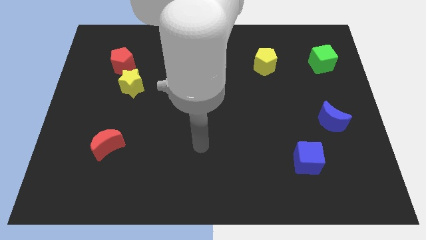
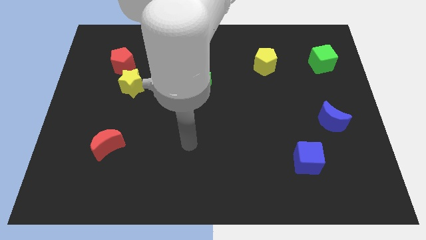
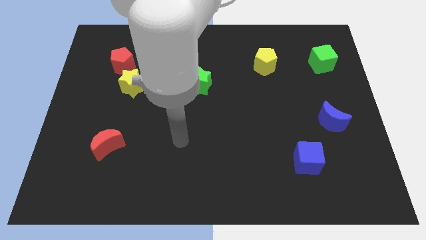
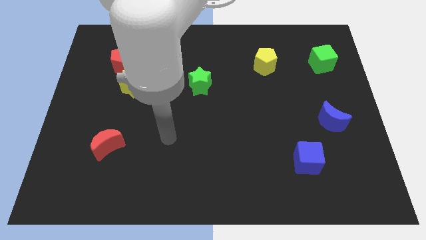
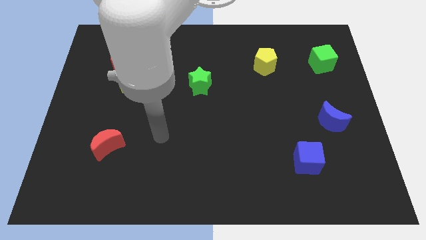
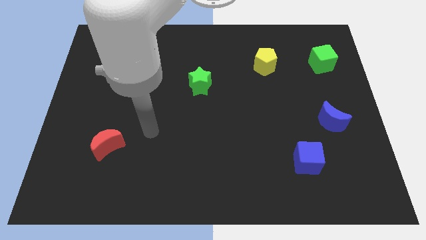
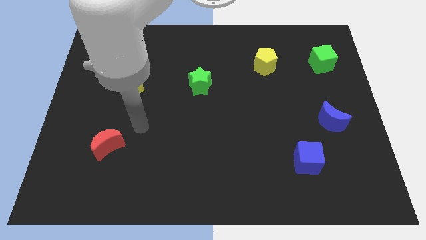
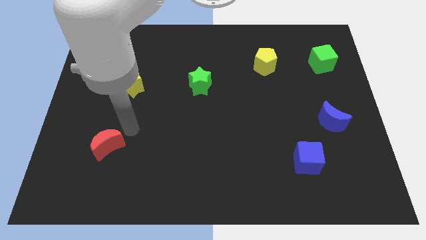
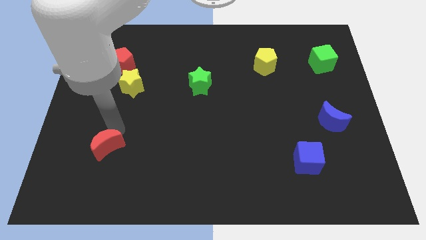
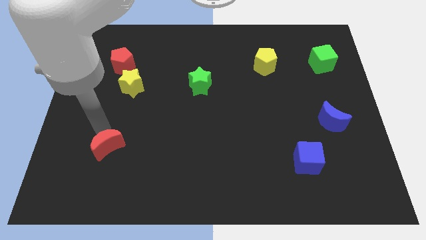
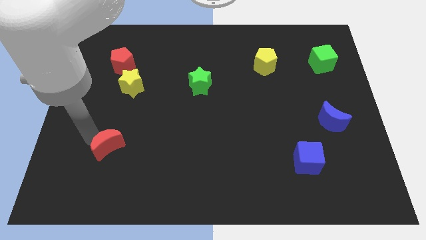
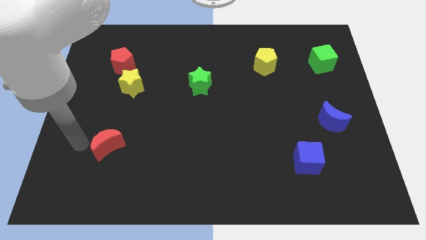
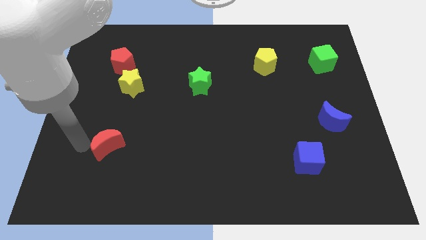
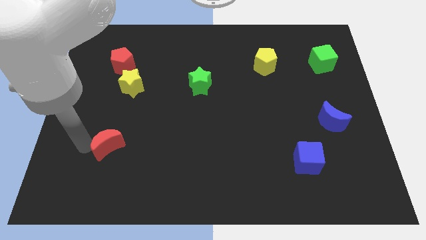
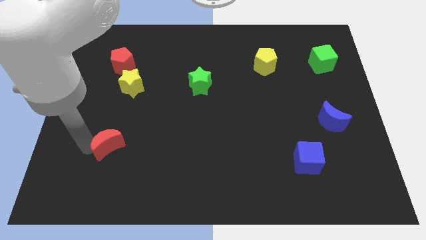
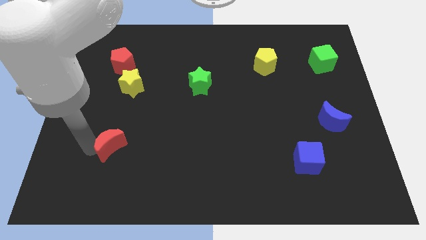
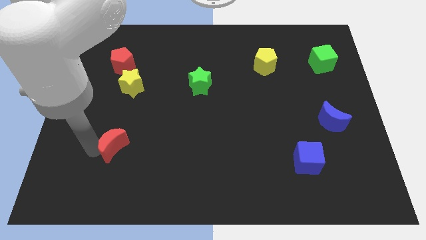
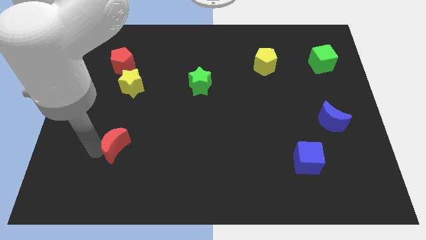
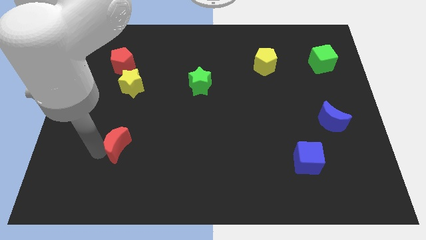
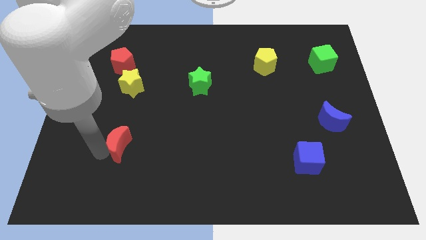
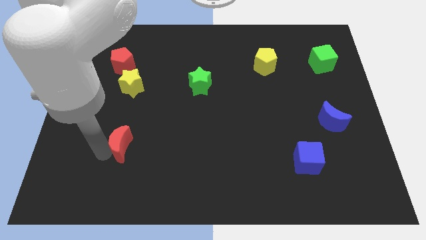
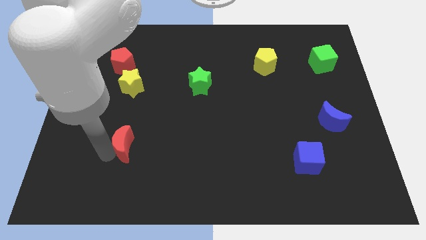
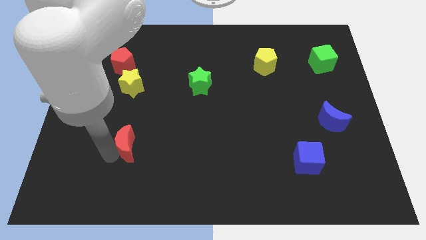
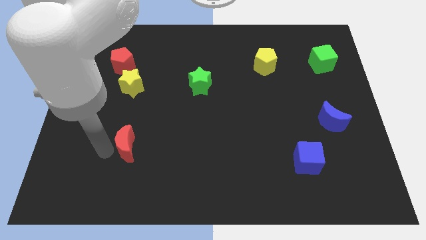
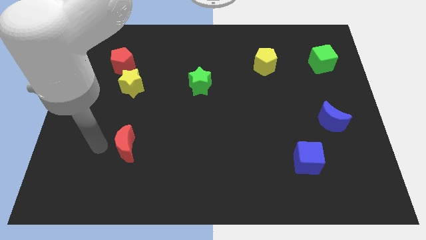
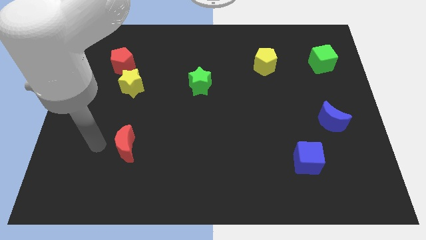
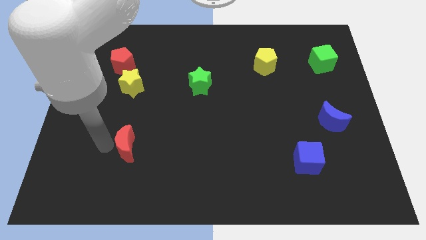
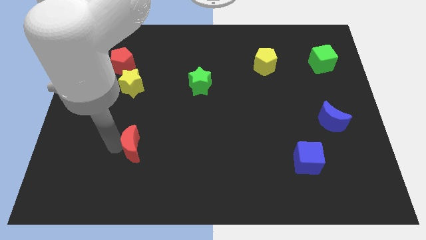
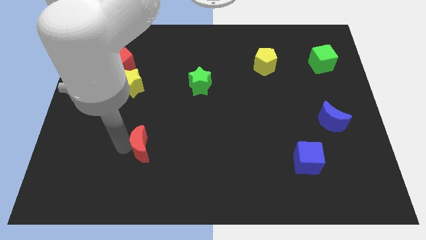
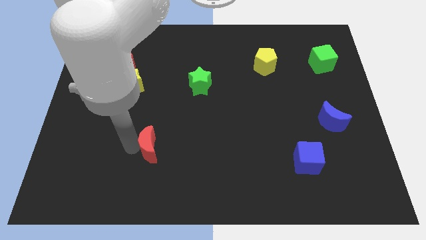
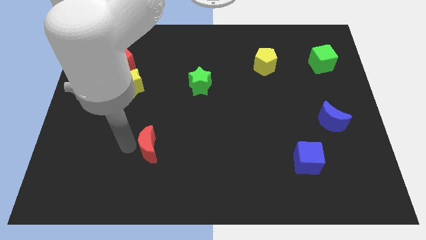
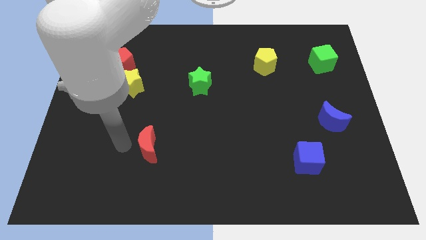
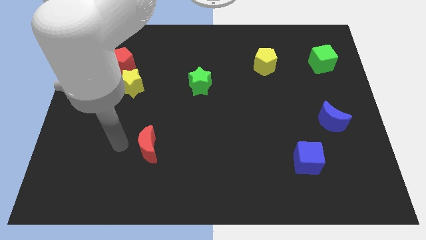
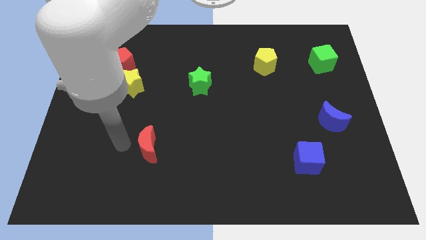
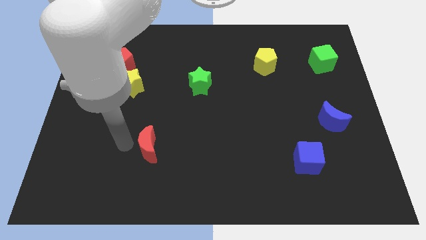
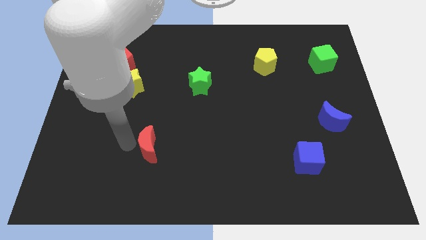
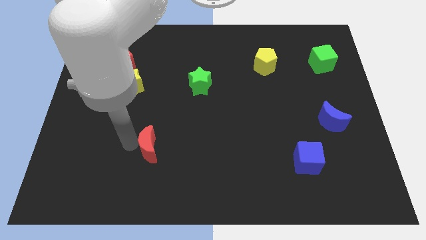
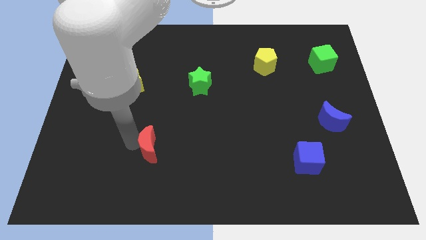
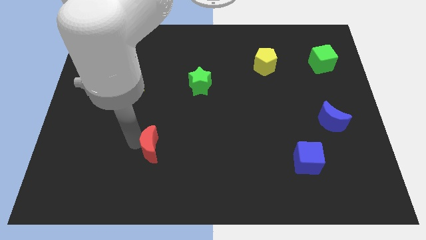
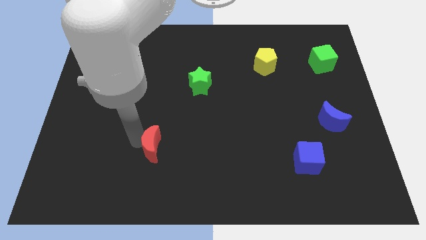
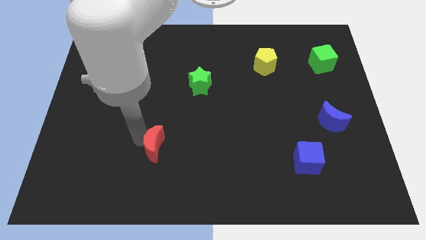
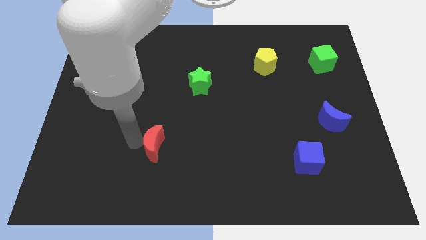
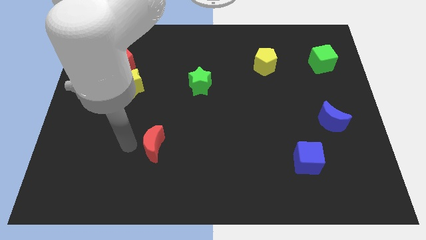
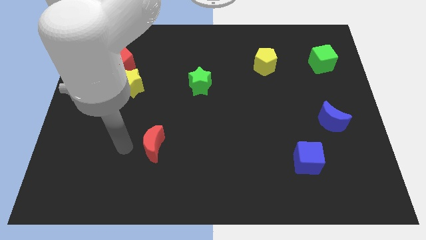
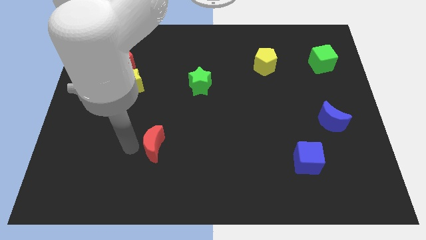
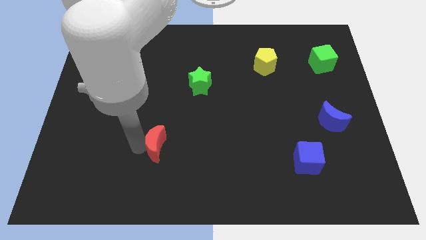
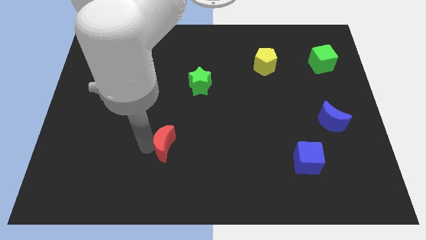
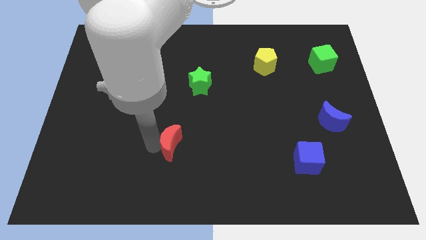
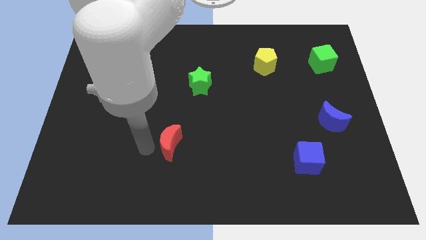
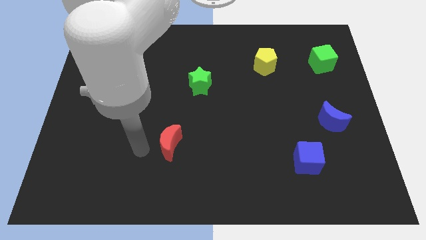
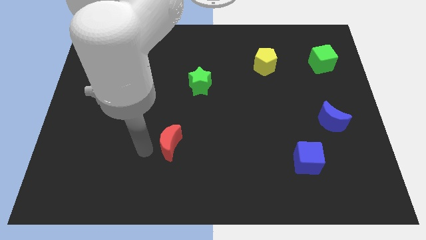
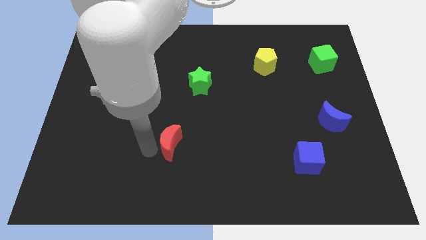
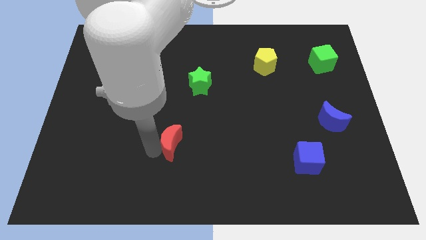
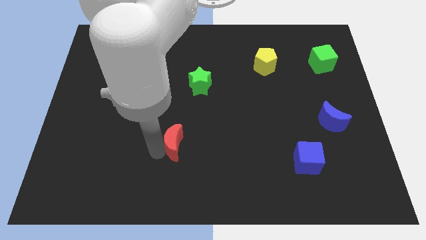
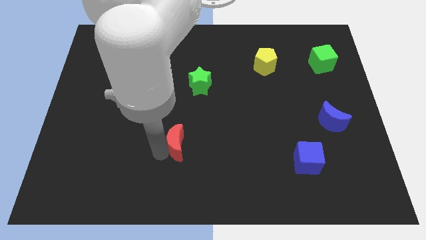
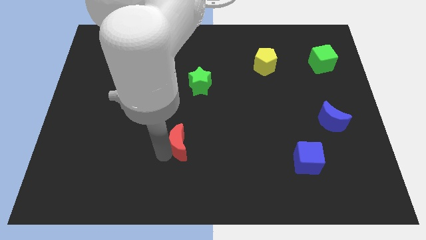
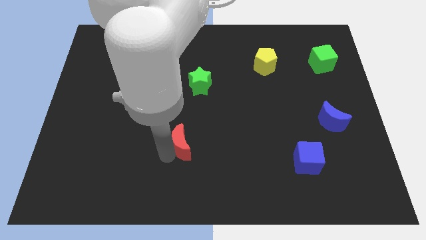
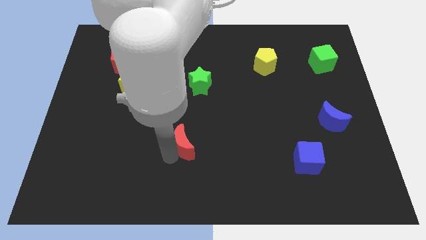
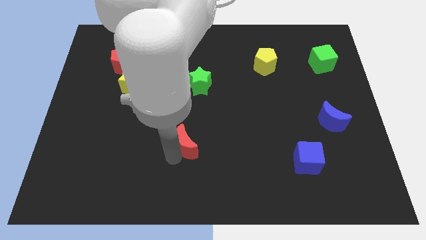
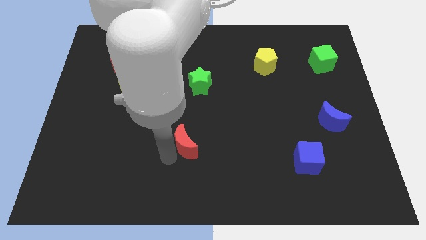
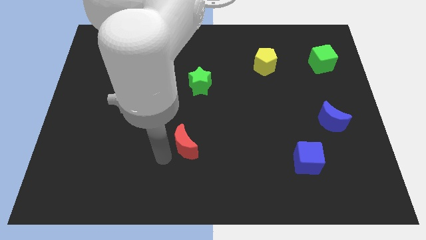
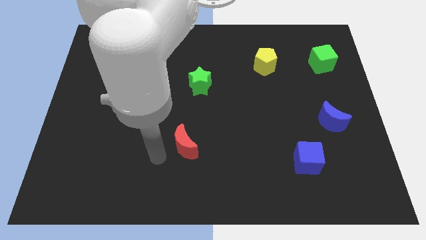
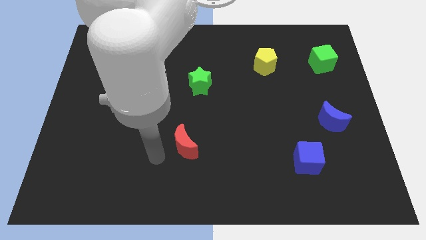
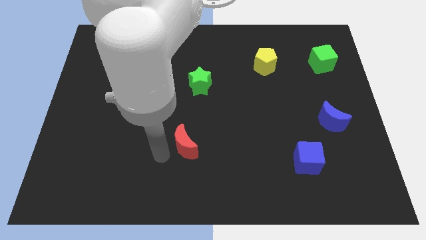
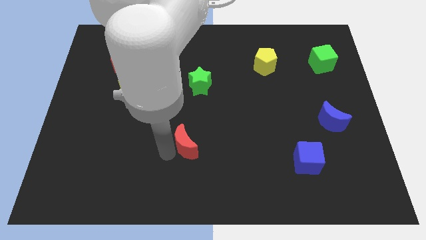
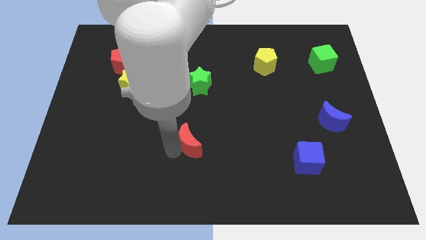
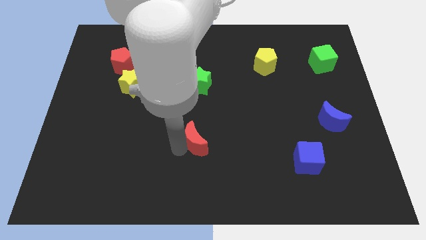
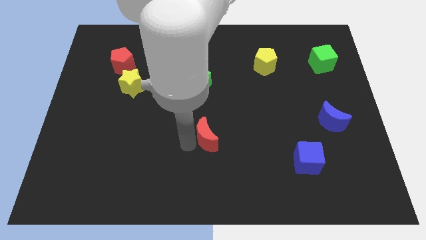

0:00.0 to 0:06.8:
push the red moon to the right

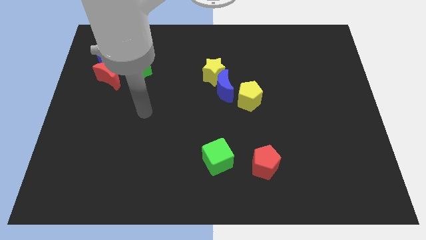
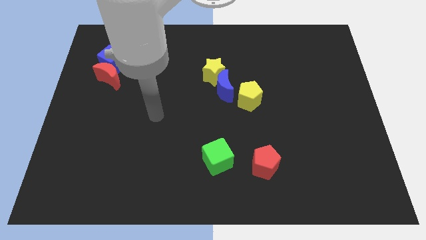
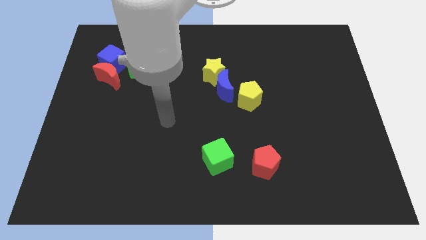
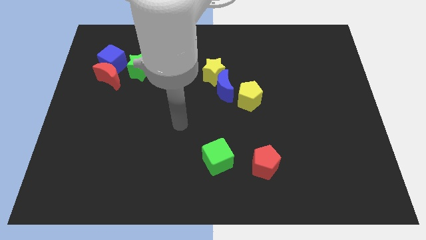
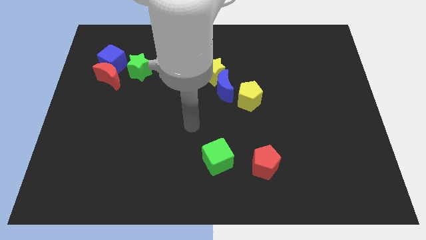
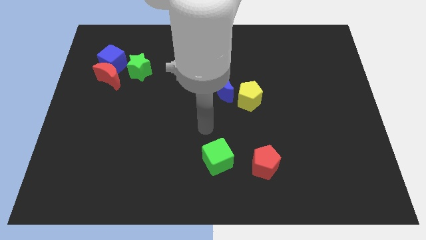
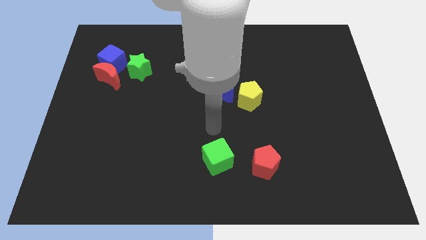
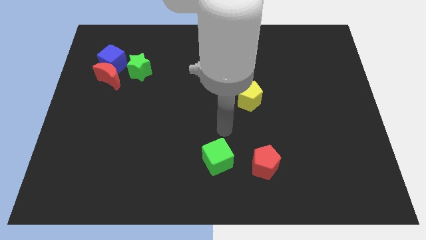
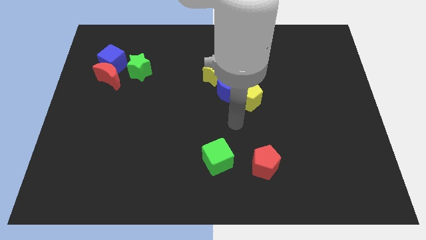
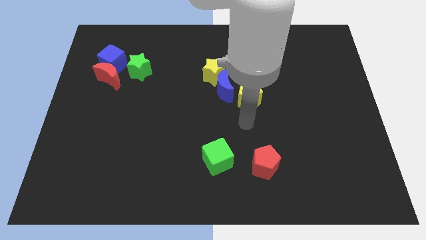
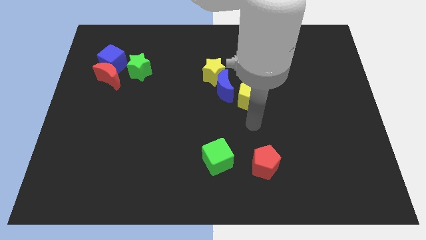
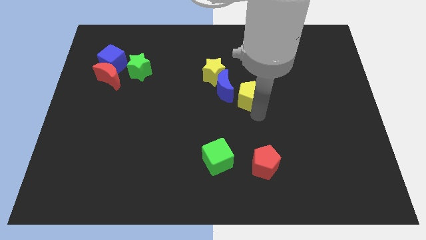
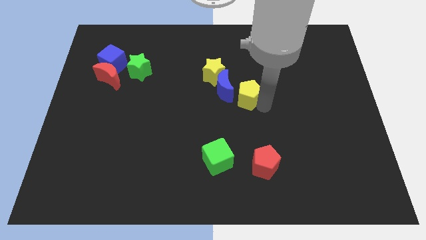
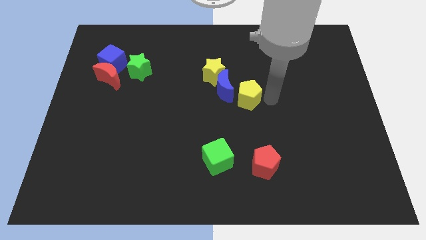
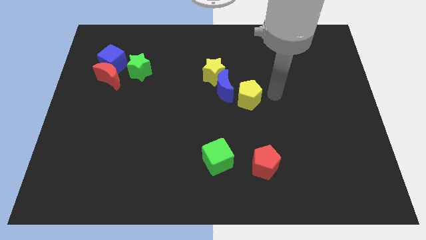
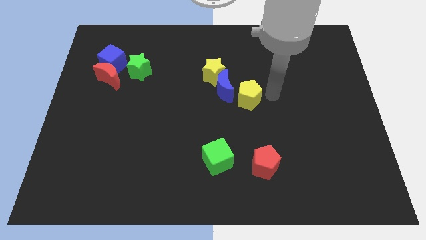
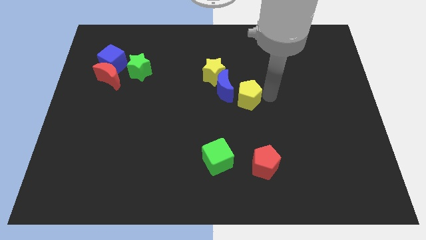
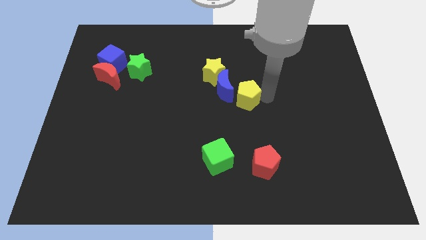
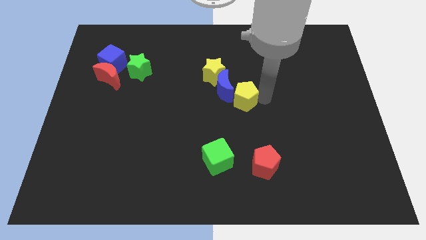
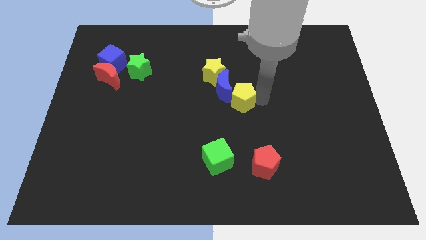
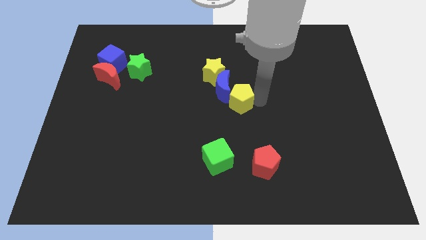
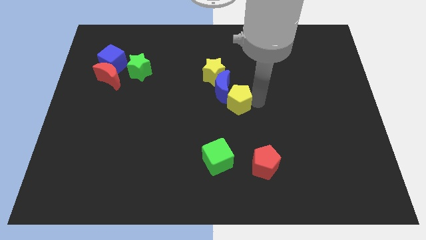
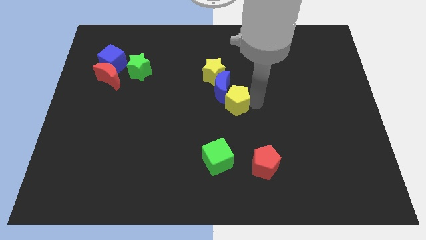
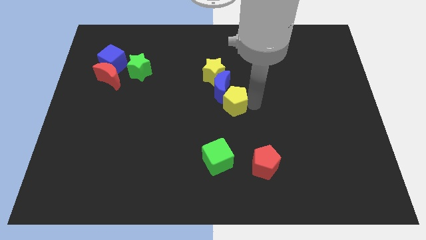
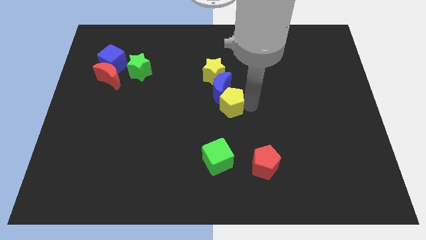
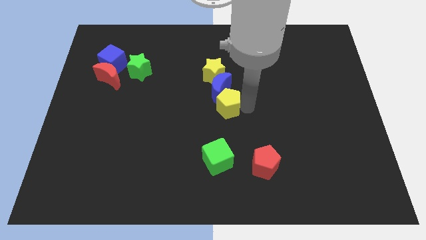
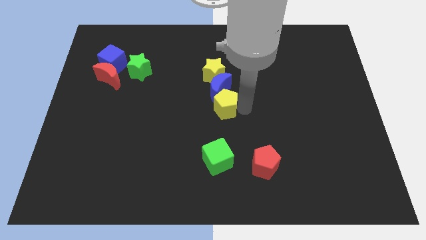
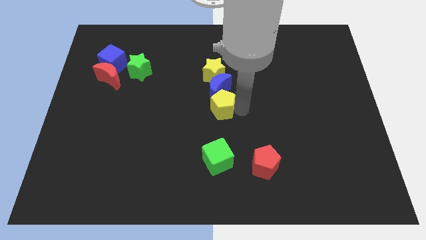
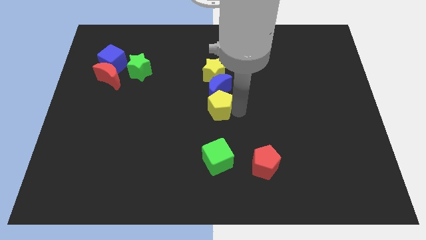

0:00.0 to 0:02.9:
push the yellow pentagon left a little bit
